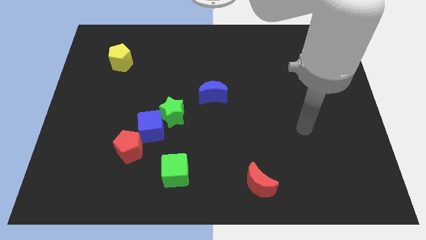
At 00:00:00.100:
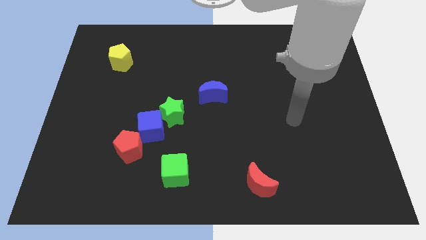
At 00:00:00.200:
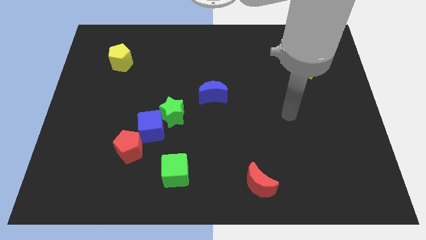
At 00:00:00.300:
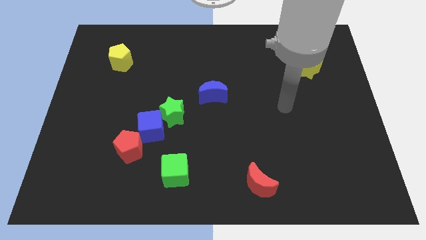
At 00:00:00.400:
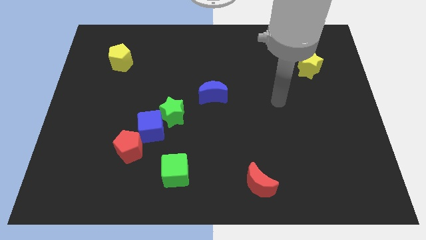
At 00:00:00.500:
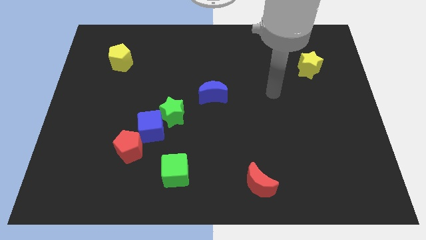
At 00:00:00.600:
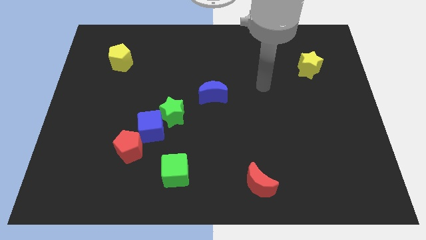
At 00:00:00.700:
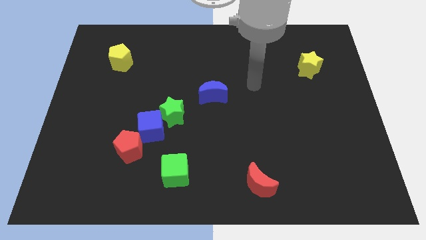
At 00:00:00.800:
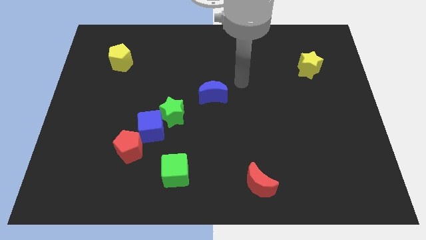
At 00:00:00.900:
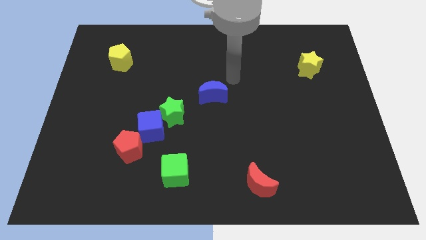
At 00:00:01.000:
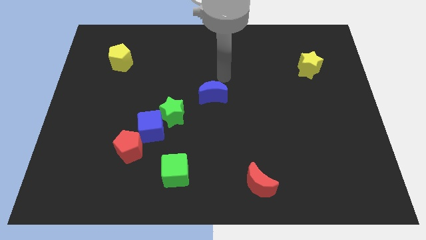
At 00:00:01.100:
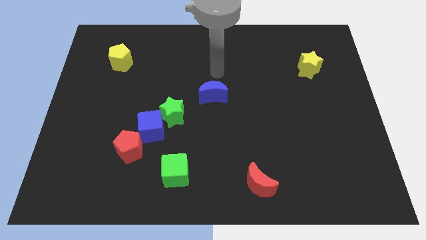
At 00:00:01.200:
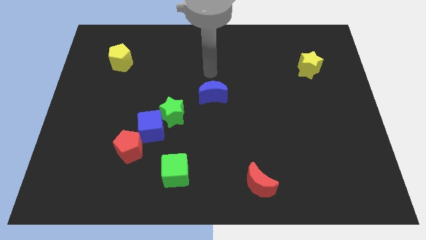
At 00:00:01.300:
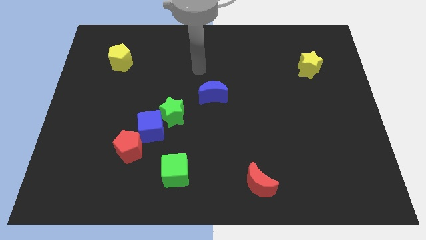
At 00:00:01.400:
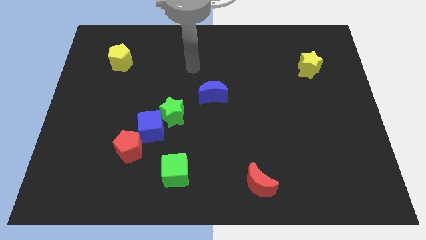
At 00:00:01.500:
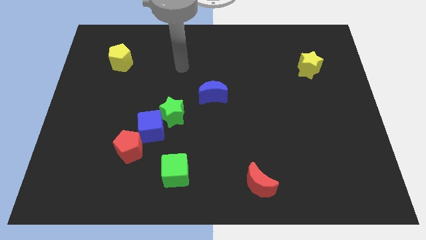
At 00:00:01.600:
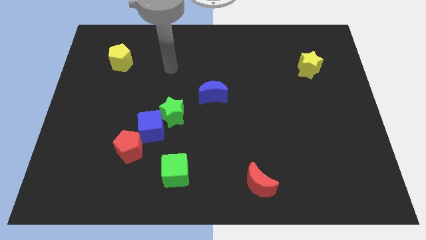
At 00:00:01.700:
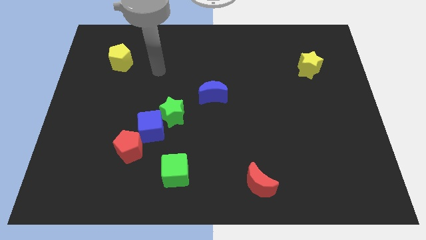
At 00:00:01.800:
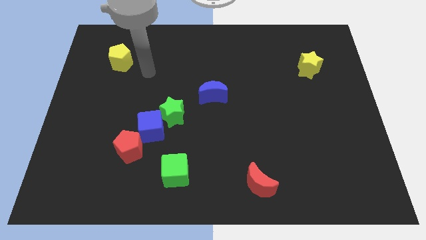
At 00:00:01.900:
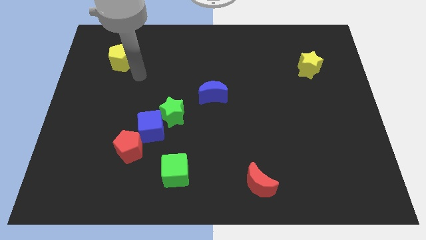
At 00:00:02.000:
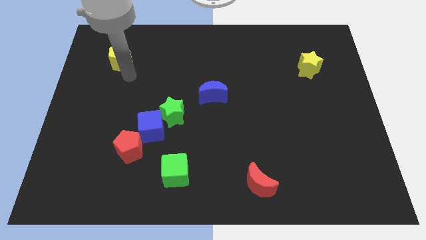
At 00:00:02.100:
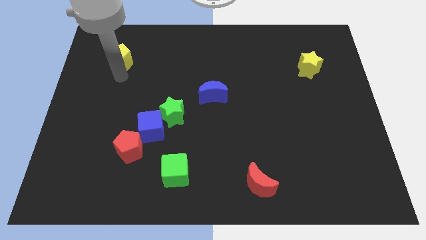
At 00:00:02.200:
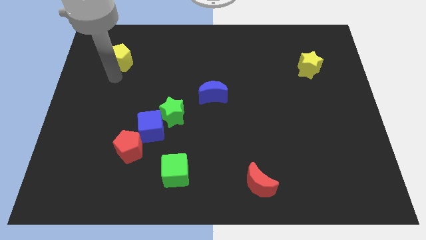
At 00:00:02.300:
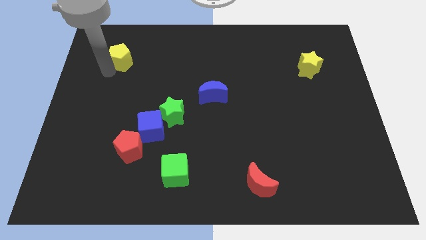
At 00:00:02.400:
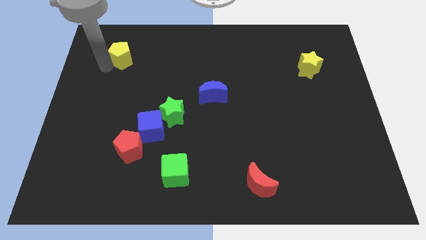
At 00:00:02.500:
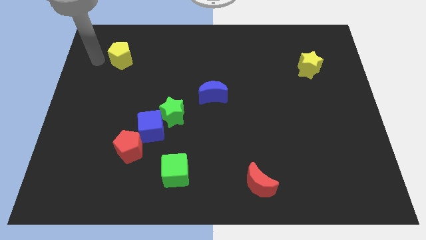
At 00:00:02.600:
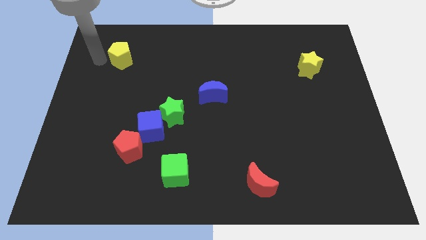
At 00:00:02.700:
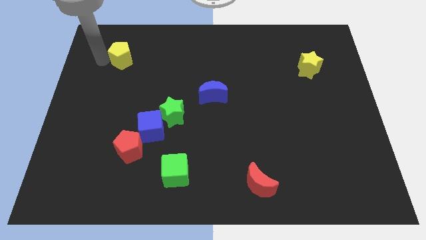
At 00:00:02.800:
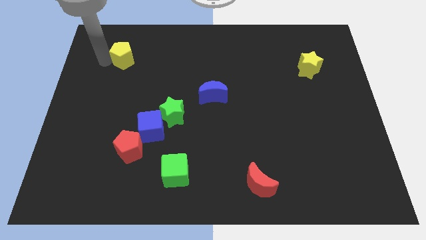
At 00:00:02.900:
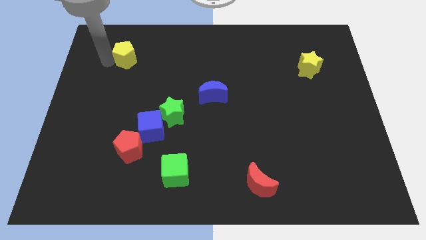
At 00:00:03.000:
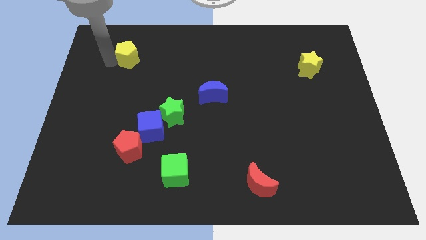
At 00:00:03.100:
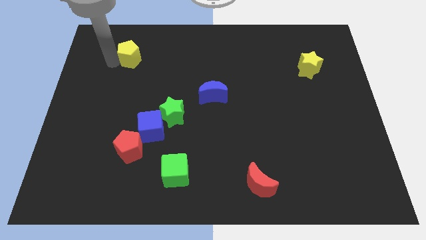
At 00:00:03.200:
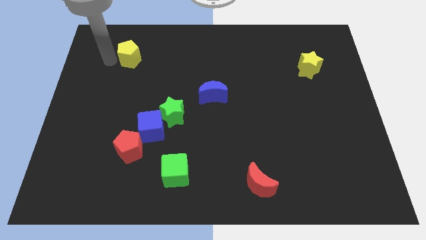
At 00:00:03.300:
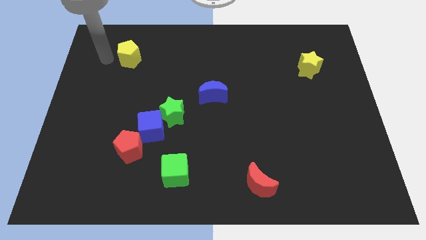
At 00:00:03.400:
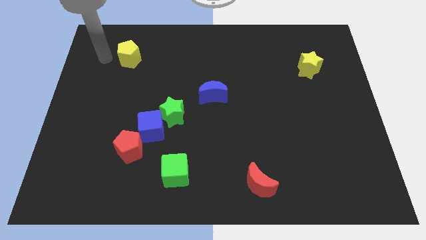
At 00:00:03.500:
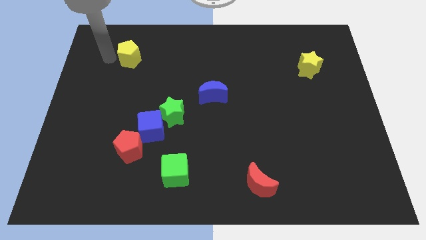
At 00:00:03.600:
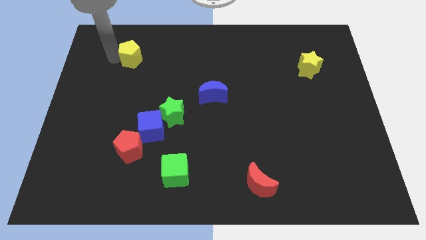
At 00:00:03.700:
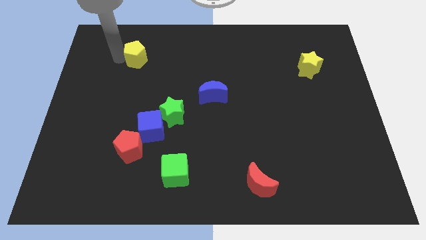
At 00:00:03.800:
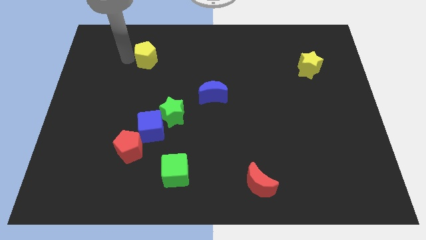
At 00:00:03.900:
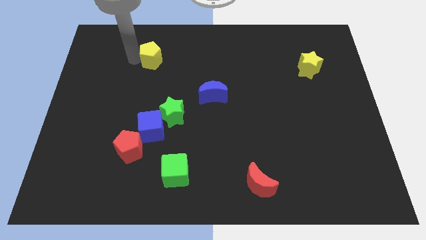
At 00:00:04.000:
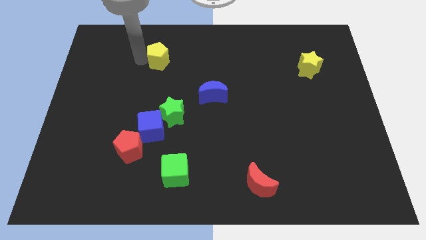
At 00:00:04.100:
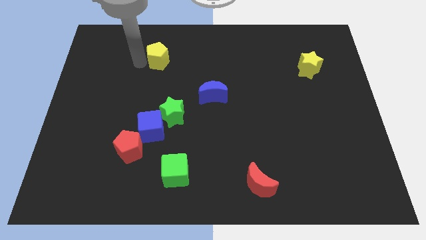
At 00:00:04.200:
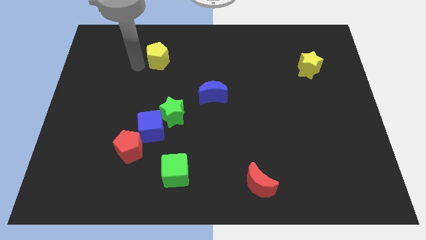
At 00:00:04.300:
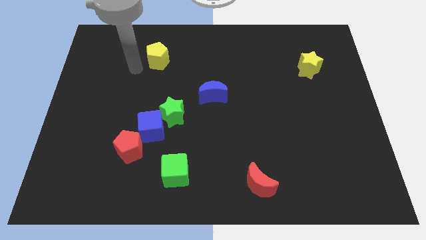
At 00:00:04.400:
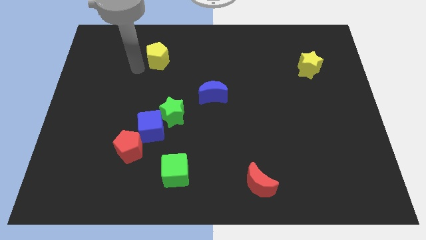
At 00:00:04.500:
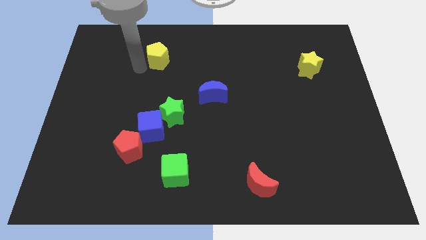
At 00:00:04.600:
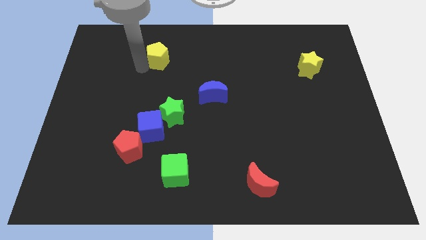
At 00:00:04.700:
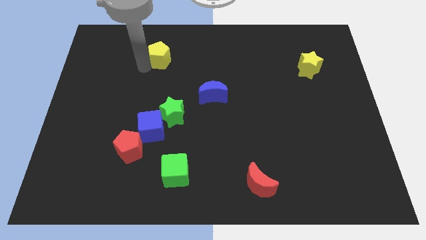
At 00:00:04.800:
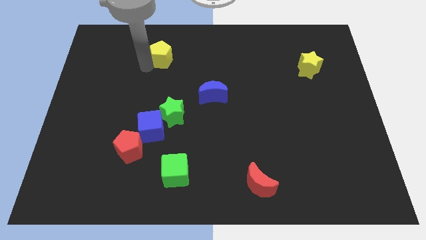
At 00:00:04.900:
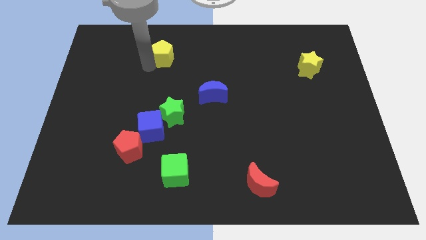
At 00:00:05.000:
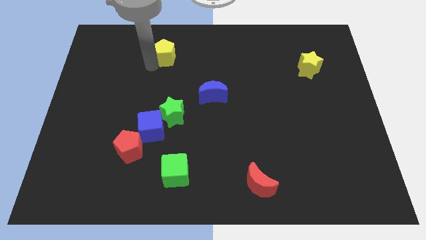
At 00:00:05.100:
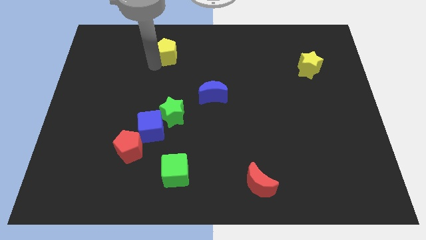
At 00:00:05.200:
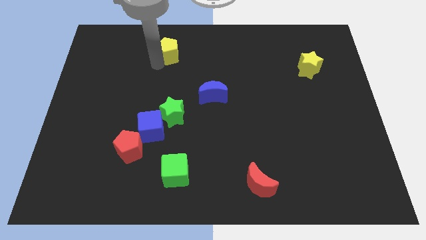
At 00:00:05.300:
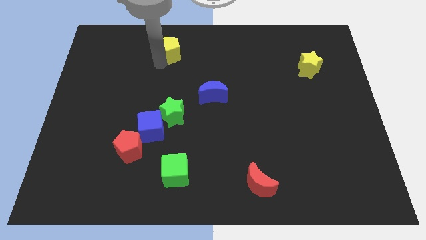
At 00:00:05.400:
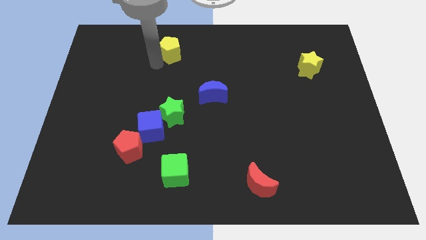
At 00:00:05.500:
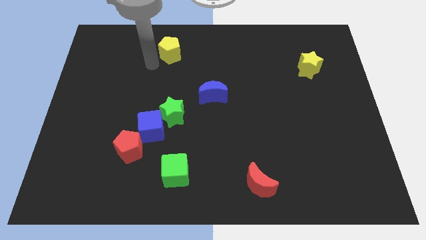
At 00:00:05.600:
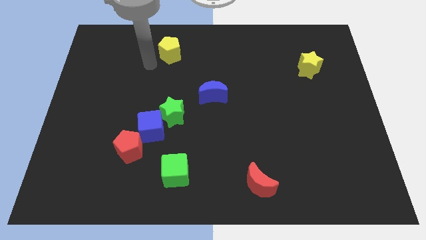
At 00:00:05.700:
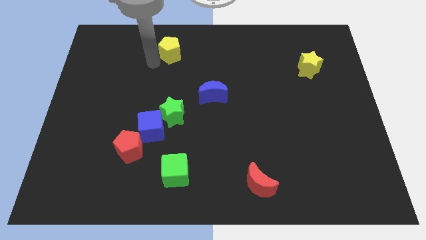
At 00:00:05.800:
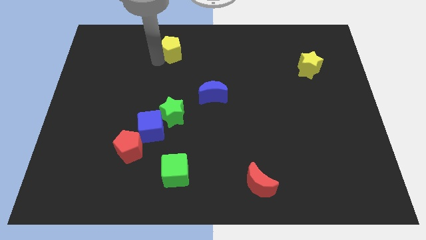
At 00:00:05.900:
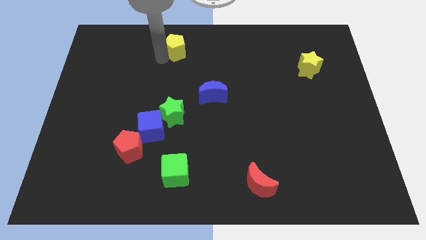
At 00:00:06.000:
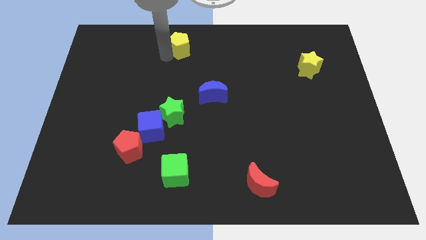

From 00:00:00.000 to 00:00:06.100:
move the yellow pentagon to the top

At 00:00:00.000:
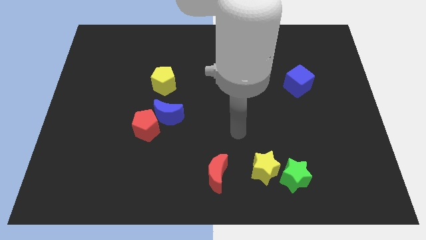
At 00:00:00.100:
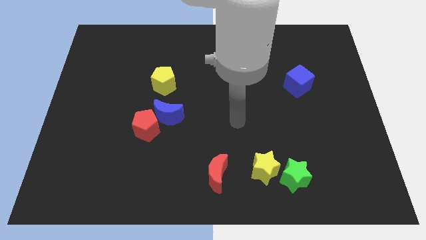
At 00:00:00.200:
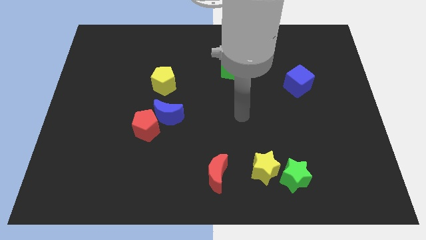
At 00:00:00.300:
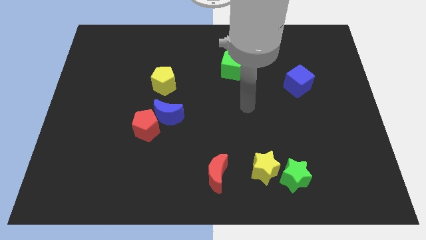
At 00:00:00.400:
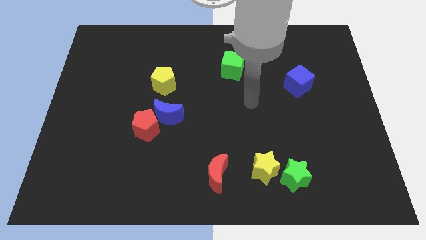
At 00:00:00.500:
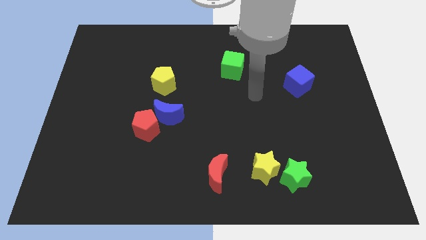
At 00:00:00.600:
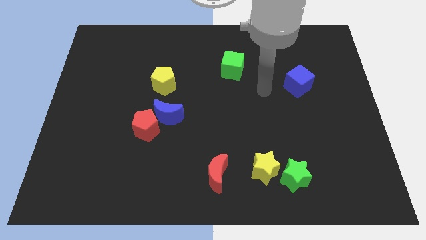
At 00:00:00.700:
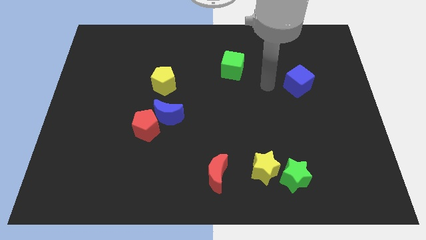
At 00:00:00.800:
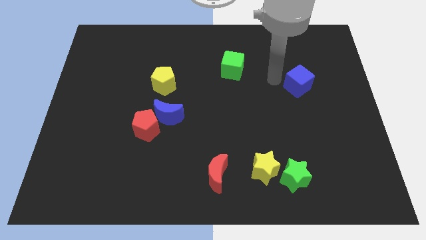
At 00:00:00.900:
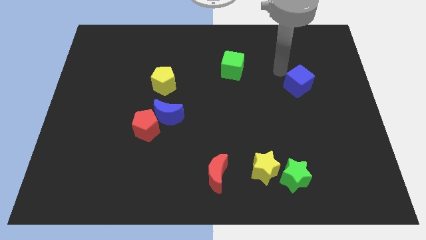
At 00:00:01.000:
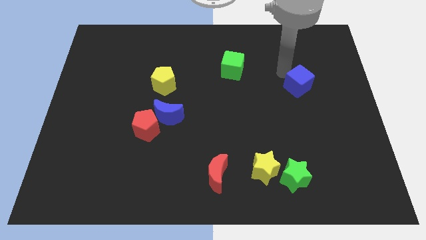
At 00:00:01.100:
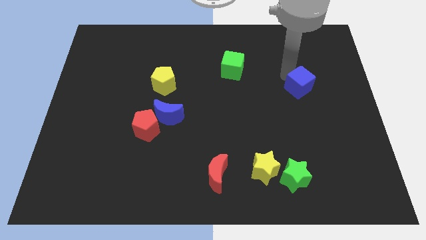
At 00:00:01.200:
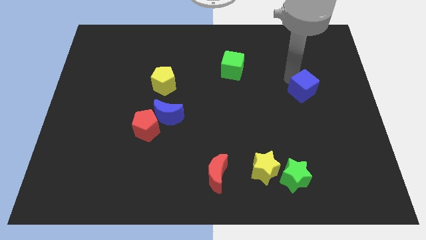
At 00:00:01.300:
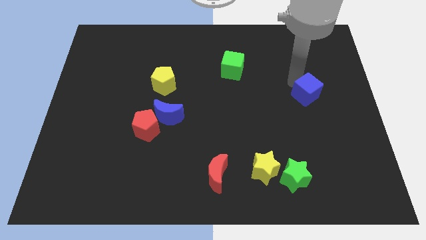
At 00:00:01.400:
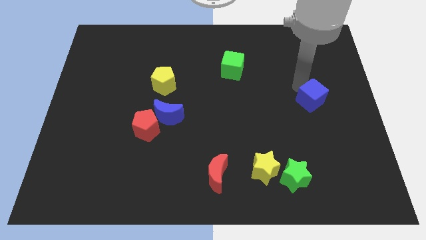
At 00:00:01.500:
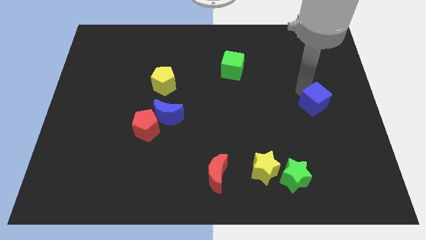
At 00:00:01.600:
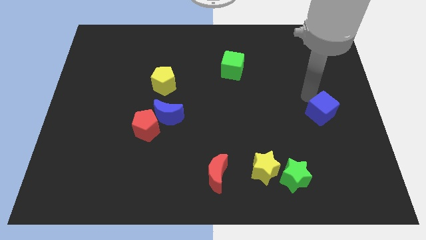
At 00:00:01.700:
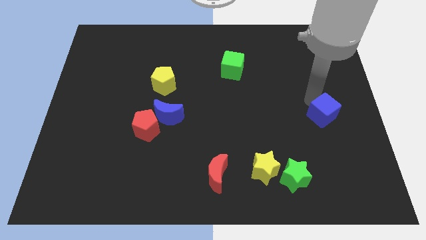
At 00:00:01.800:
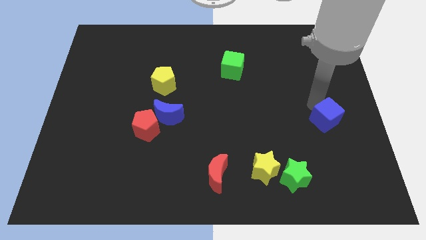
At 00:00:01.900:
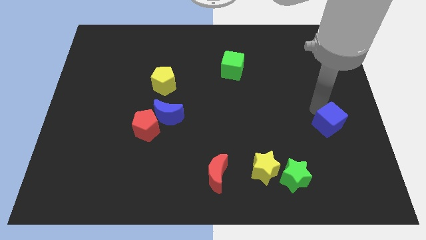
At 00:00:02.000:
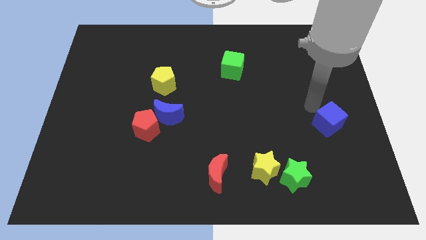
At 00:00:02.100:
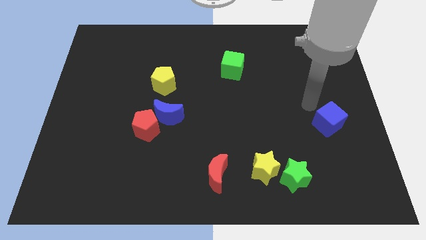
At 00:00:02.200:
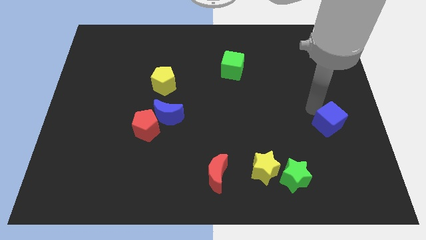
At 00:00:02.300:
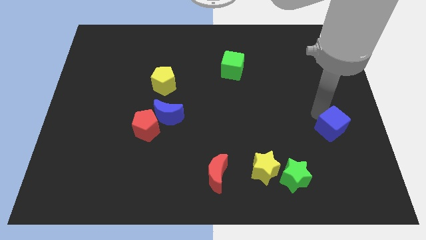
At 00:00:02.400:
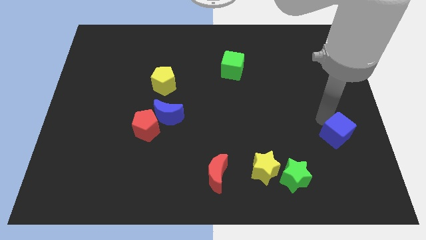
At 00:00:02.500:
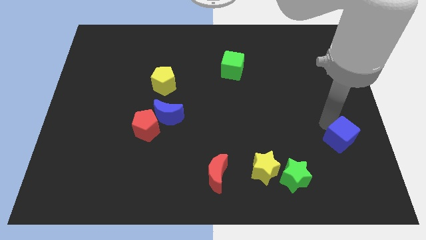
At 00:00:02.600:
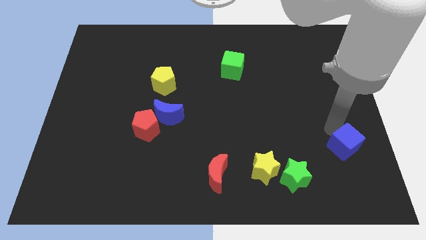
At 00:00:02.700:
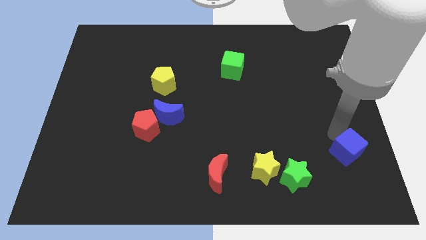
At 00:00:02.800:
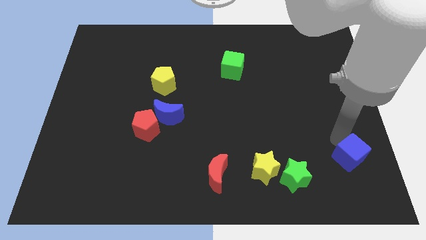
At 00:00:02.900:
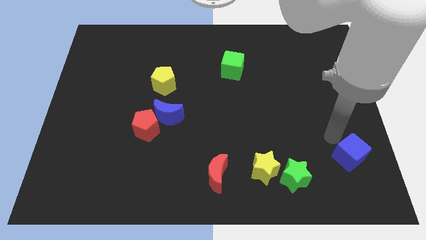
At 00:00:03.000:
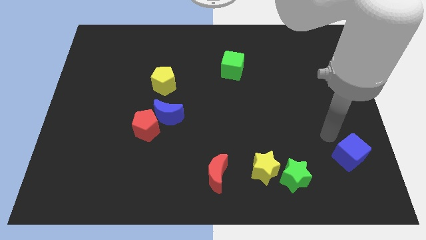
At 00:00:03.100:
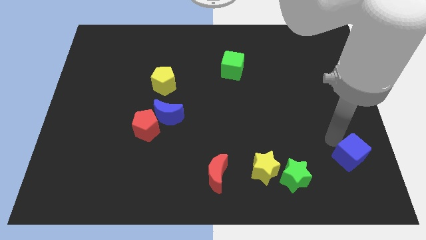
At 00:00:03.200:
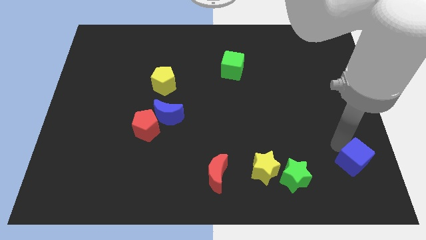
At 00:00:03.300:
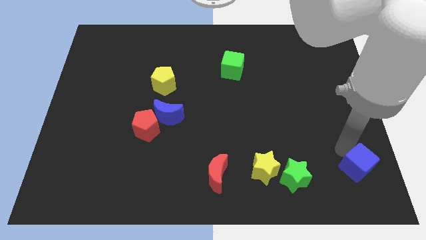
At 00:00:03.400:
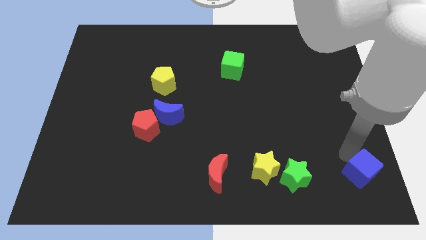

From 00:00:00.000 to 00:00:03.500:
put the blue cube to the lower right corner
